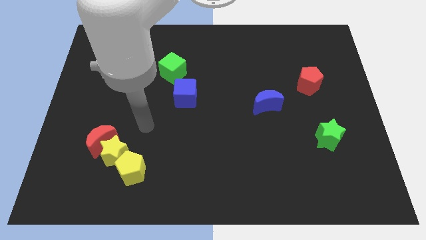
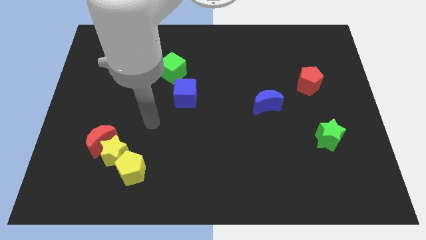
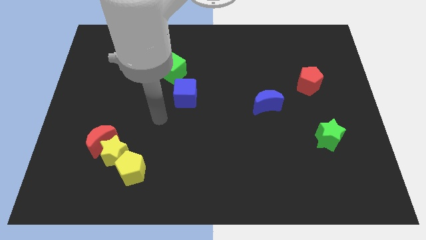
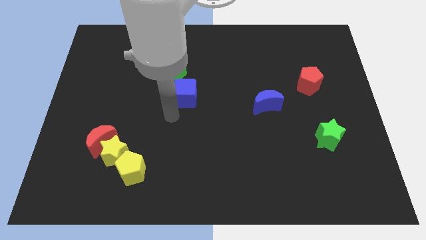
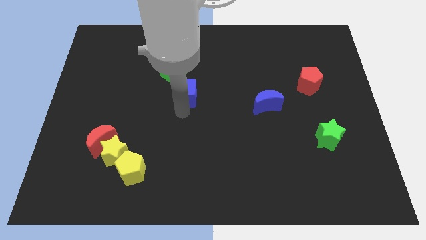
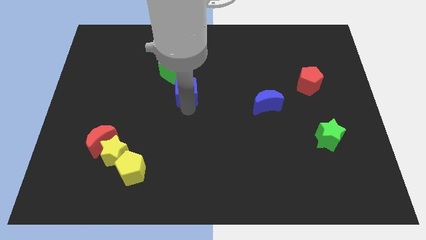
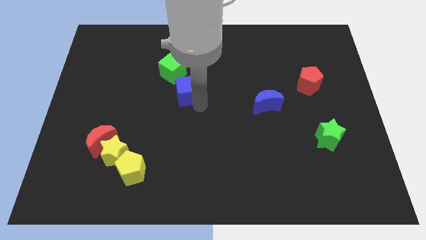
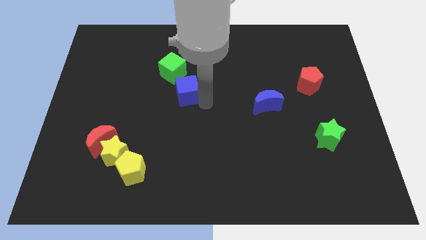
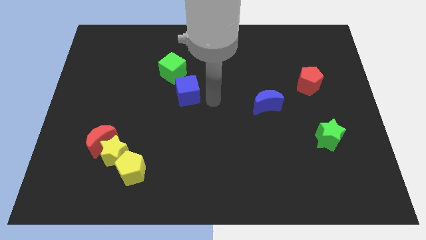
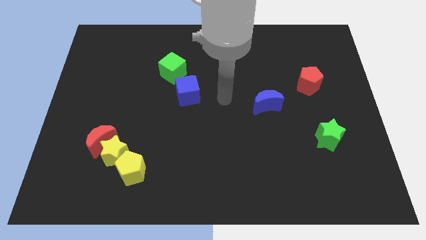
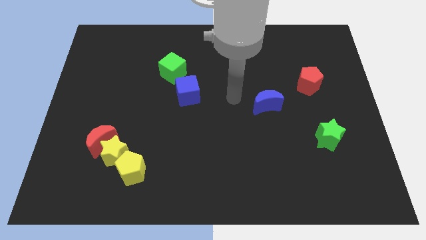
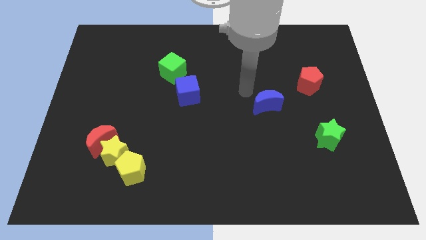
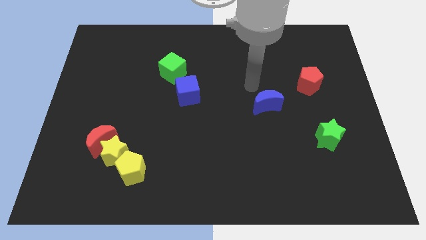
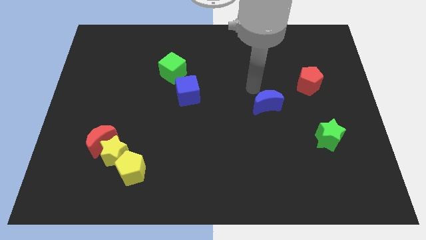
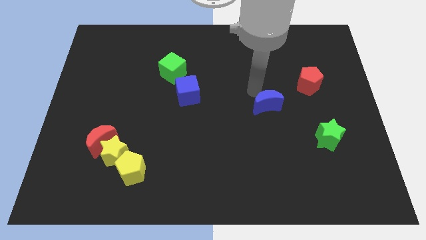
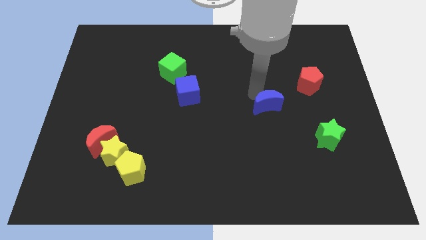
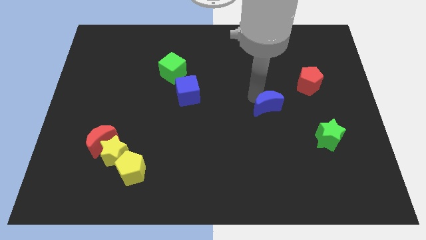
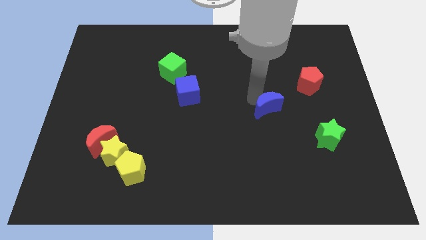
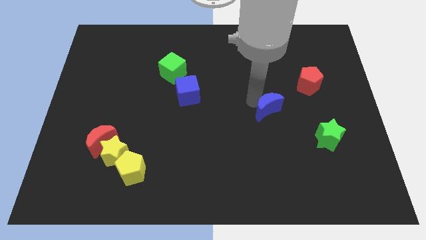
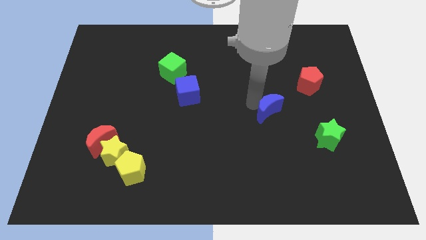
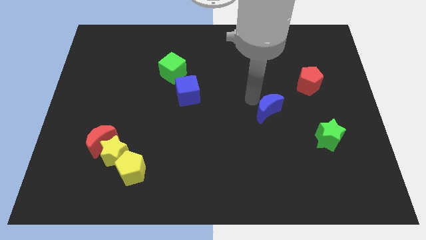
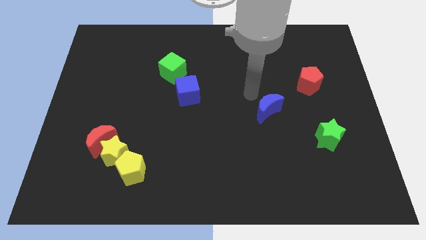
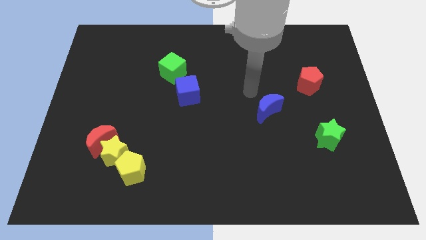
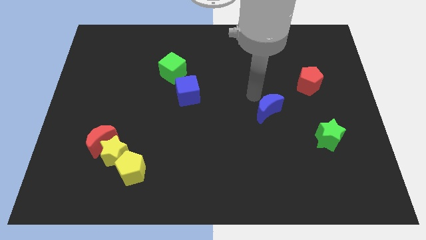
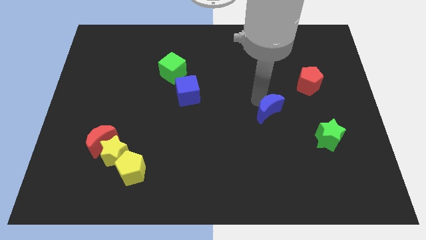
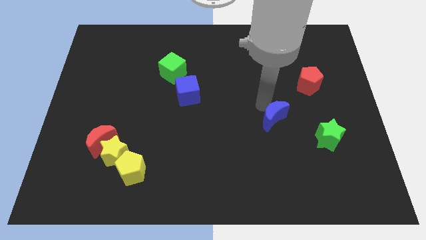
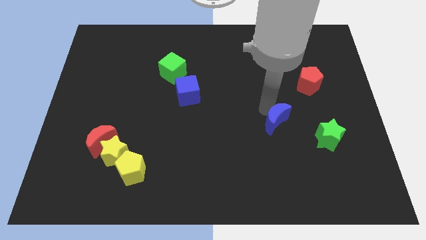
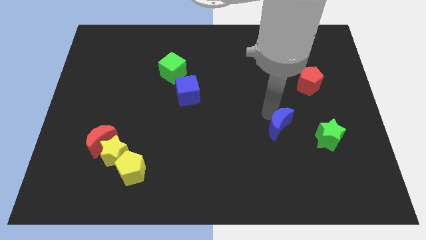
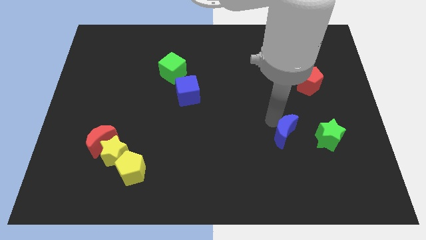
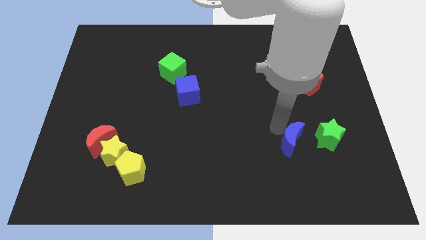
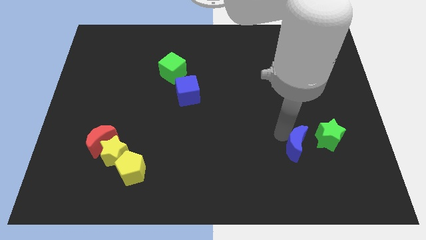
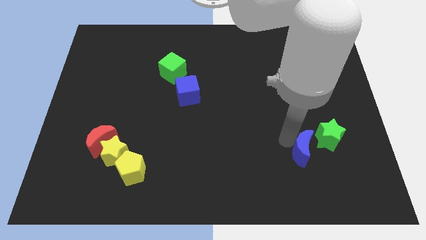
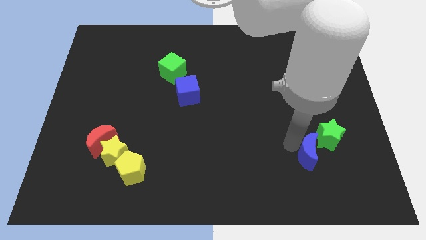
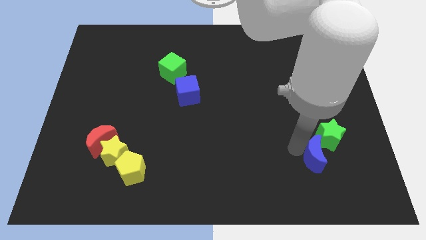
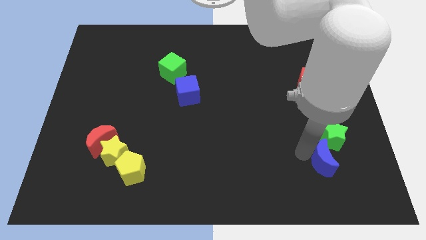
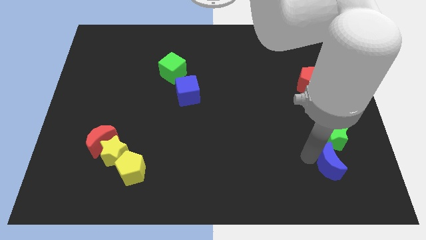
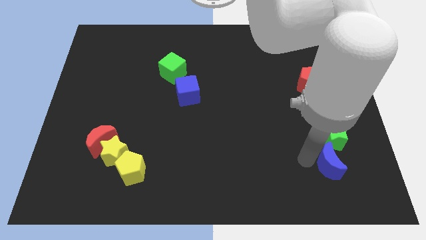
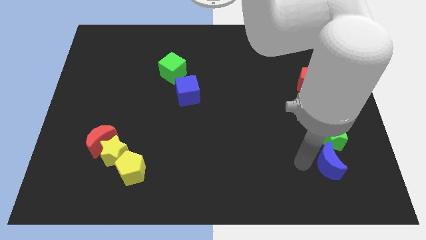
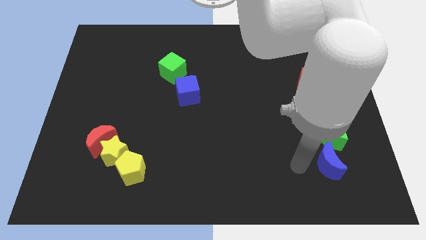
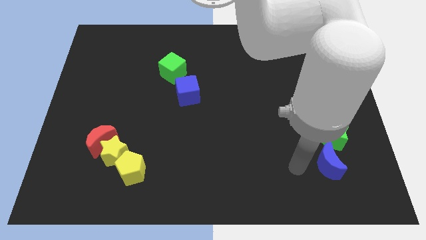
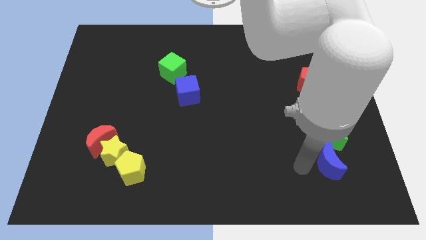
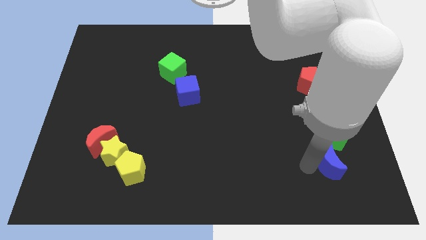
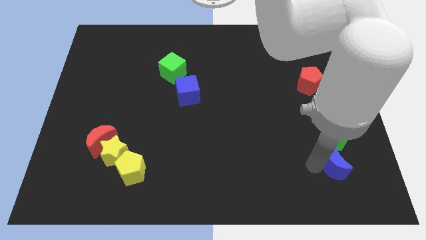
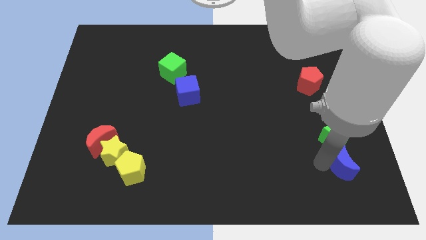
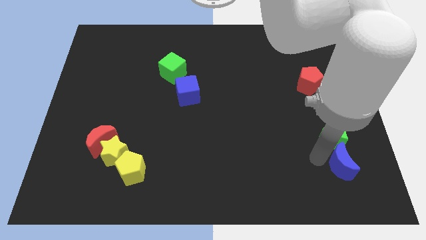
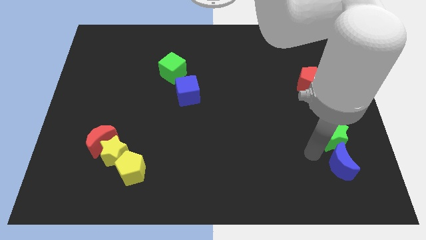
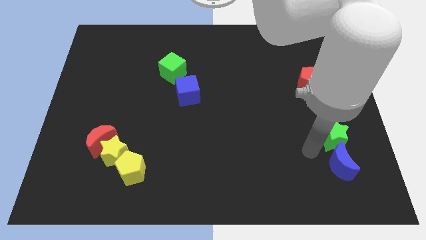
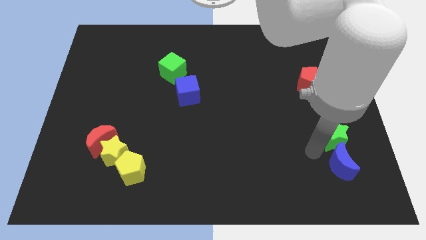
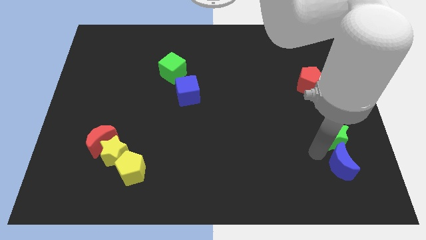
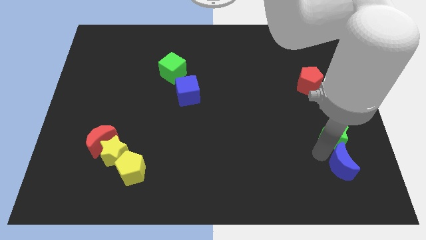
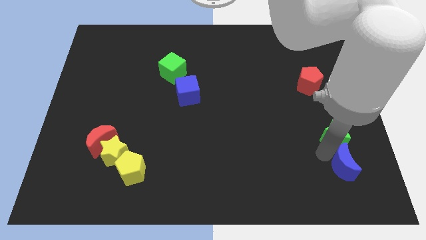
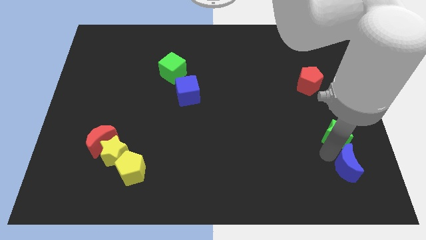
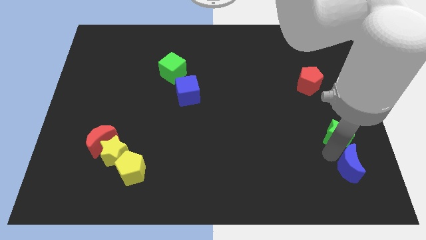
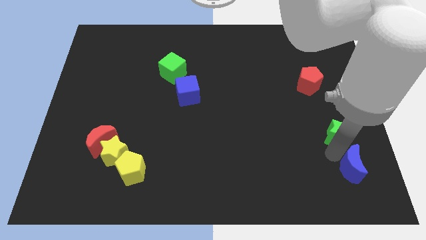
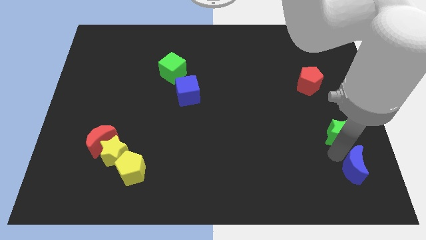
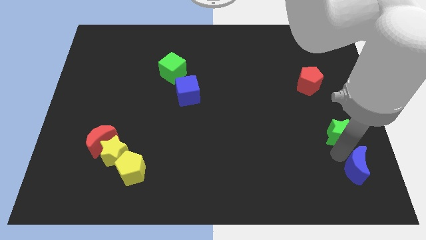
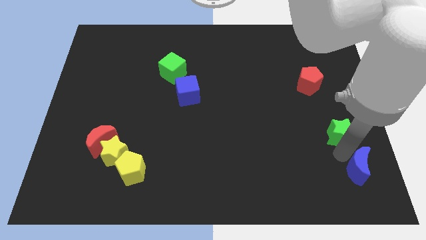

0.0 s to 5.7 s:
push the blue moon to the bottom right

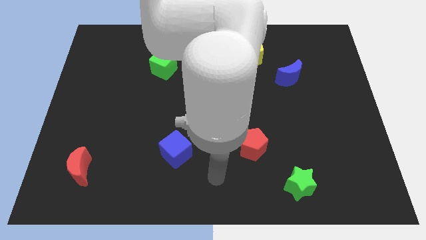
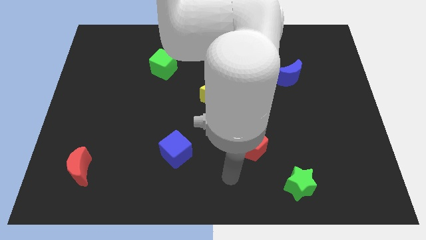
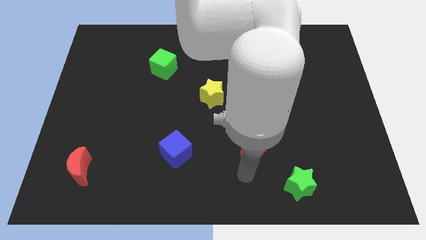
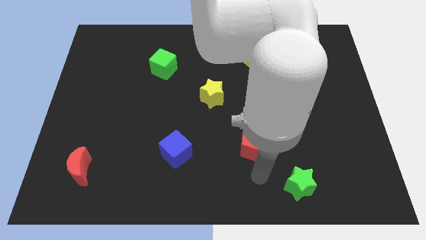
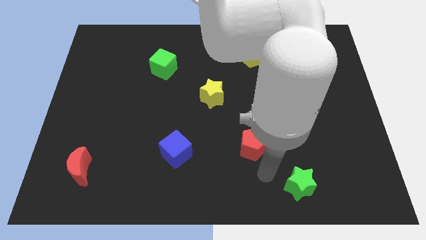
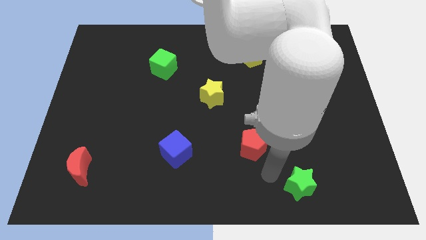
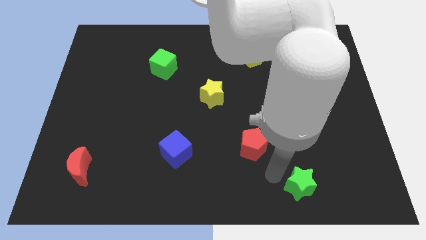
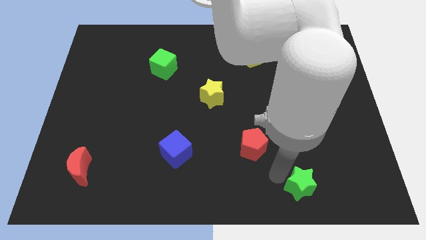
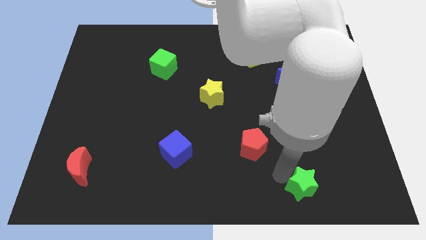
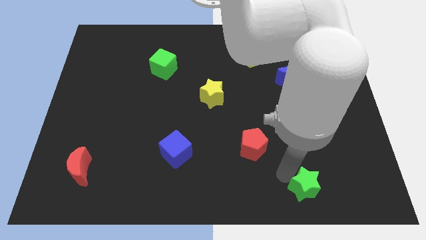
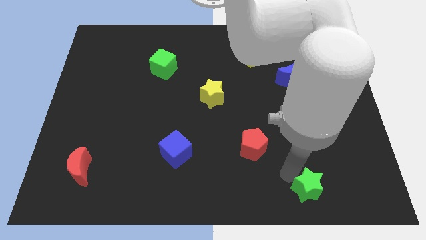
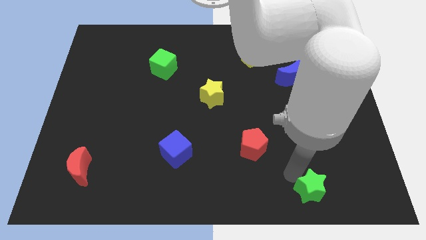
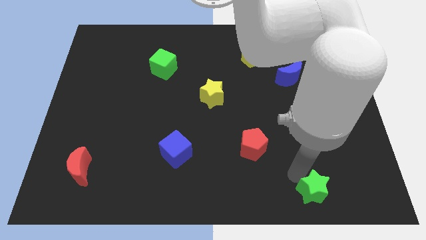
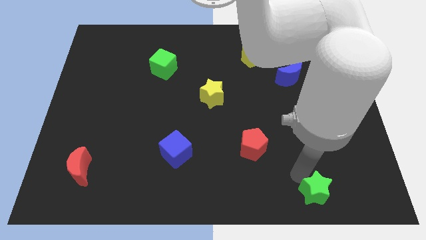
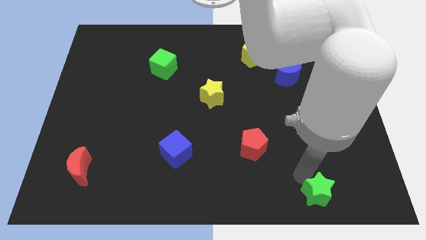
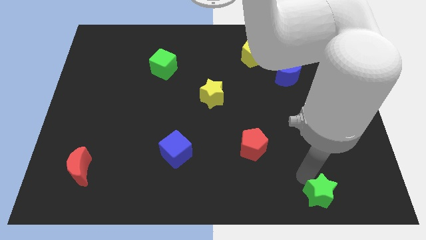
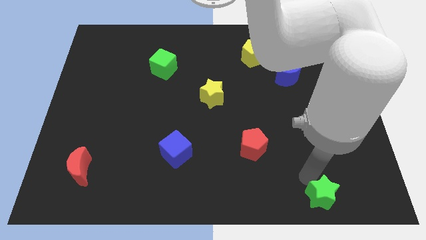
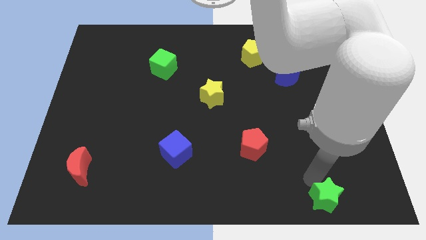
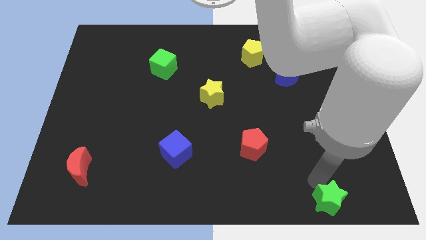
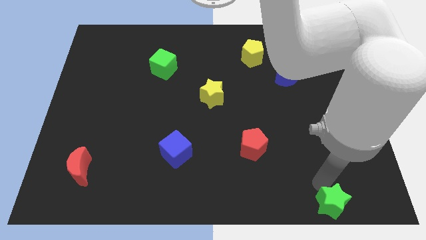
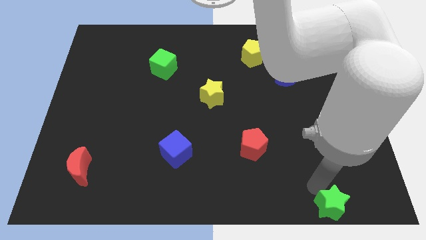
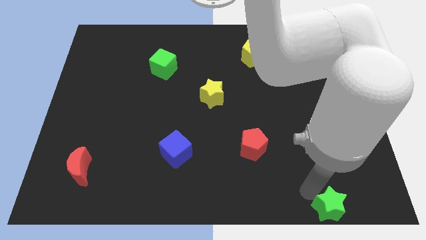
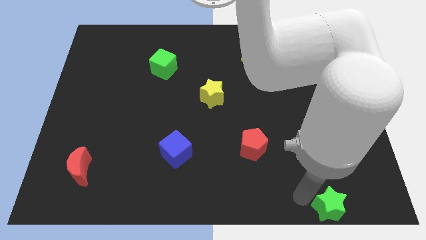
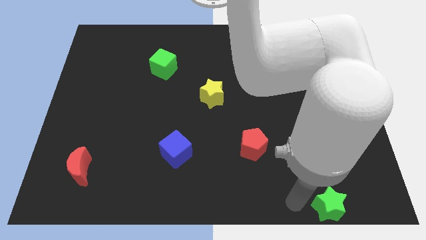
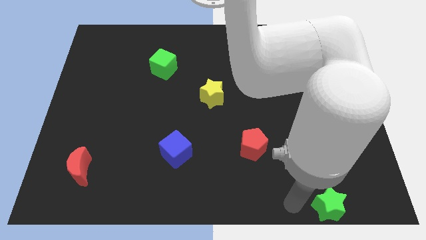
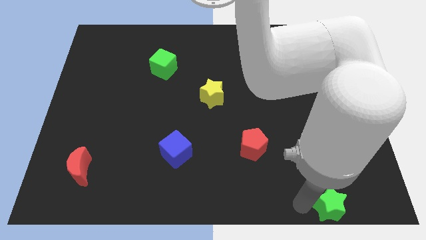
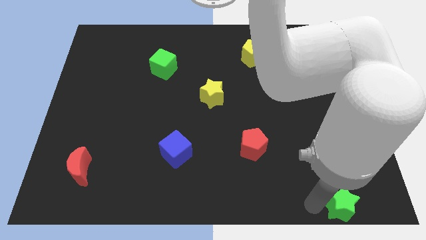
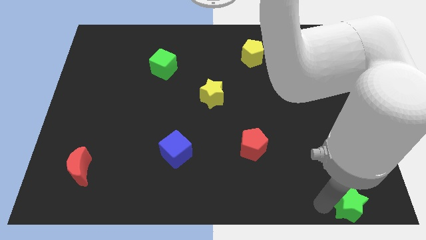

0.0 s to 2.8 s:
move the green star to the lower right corner
